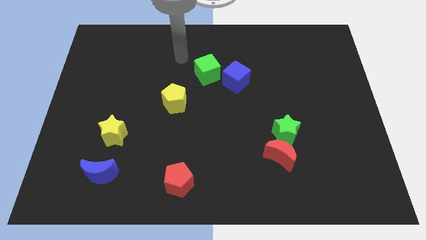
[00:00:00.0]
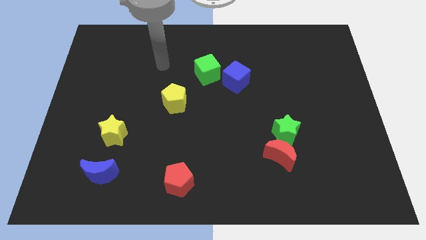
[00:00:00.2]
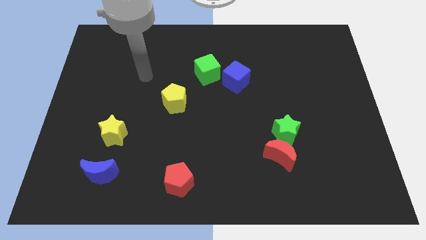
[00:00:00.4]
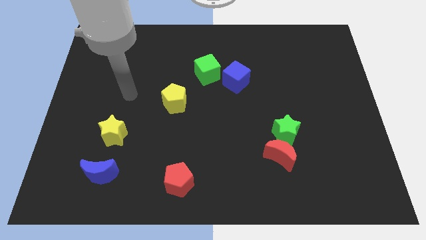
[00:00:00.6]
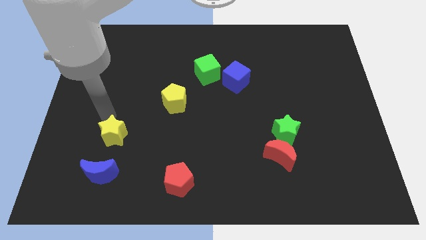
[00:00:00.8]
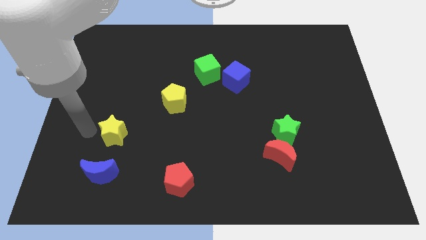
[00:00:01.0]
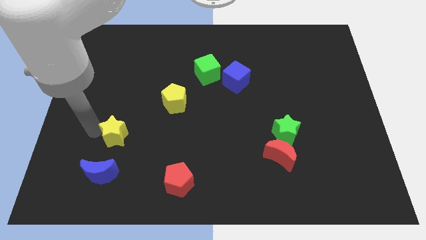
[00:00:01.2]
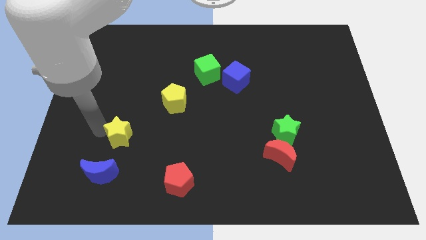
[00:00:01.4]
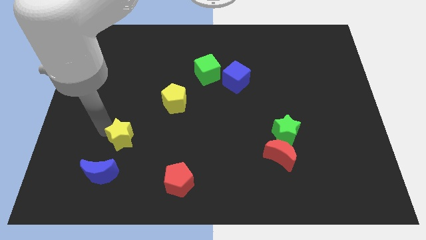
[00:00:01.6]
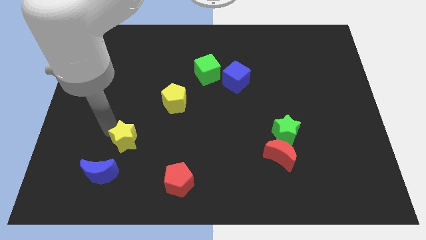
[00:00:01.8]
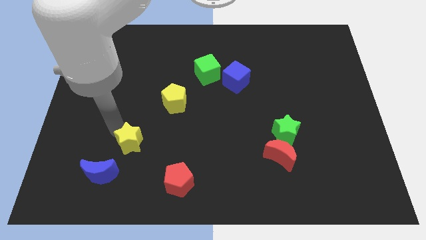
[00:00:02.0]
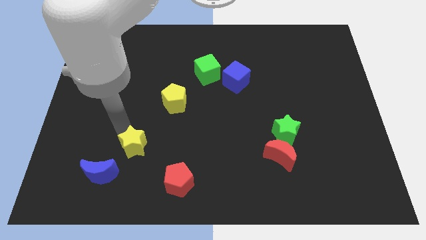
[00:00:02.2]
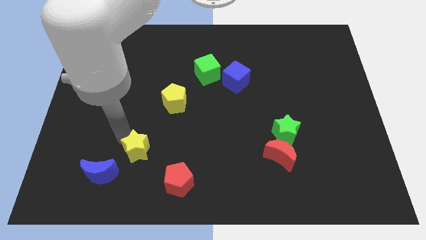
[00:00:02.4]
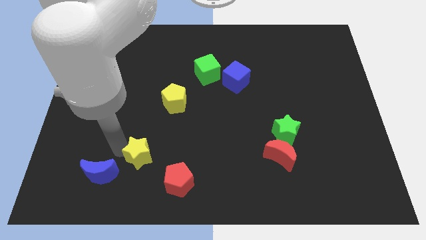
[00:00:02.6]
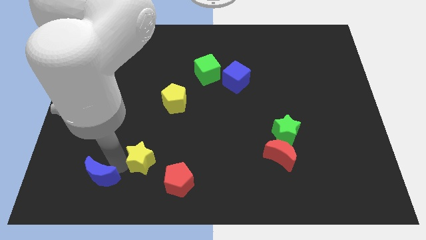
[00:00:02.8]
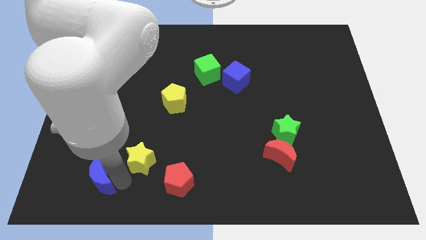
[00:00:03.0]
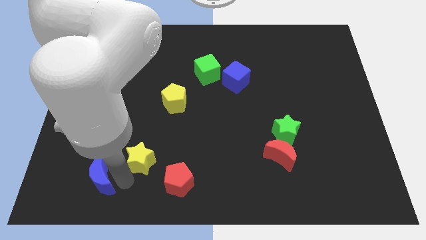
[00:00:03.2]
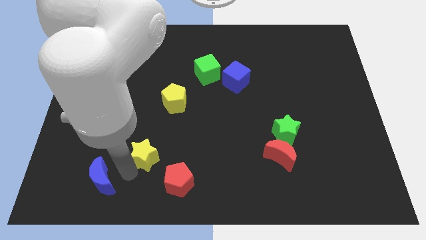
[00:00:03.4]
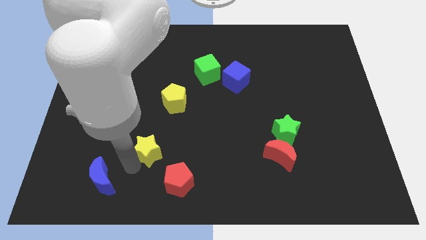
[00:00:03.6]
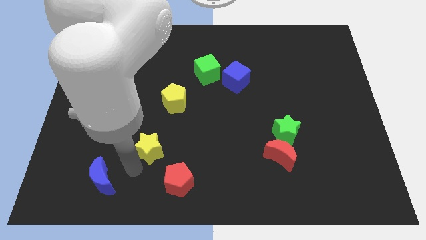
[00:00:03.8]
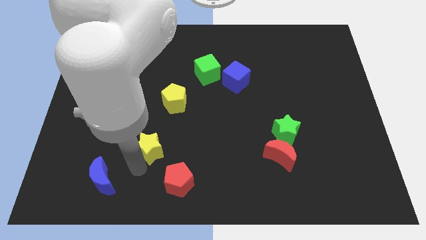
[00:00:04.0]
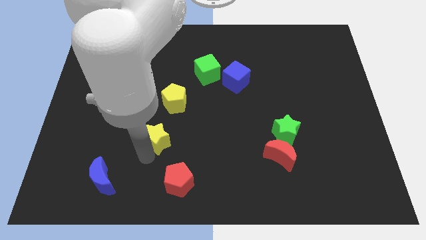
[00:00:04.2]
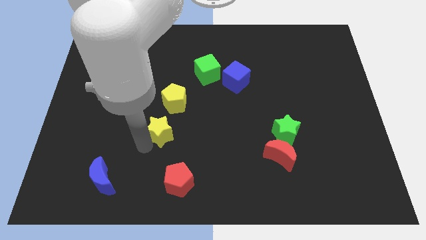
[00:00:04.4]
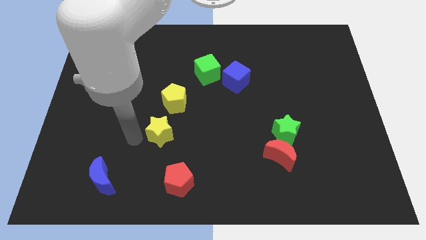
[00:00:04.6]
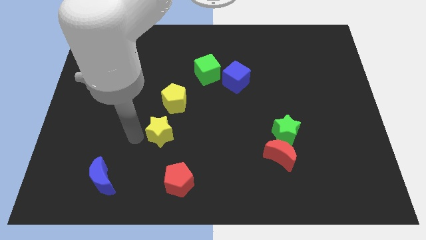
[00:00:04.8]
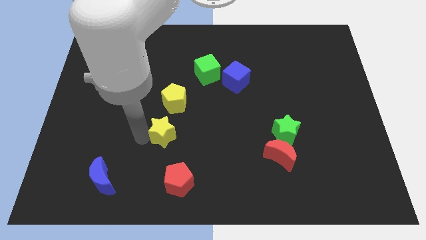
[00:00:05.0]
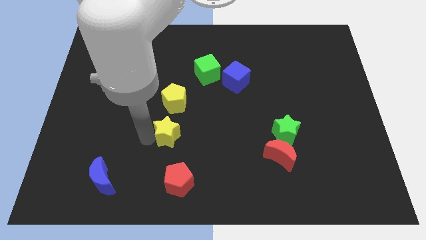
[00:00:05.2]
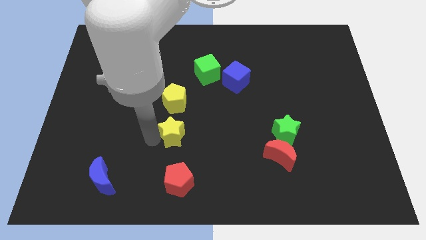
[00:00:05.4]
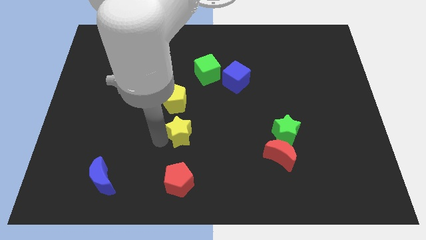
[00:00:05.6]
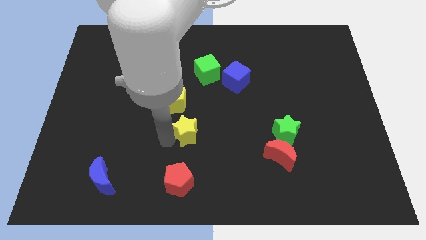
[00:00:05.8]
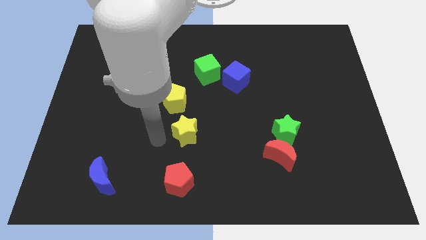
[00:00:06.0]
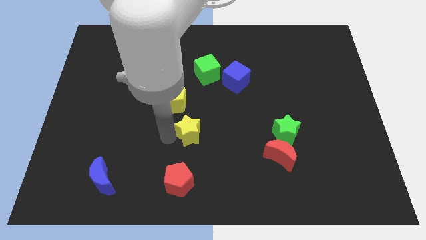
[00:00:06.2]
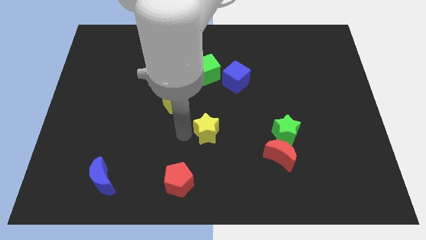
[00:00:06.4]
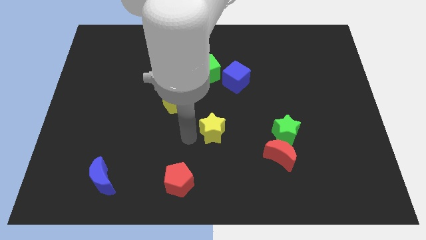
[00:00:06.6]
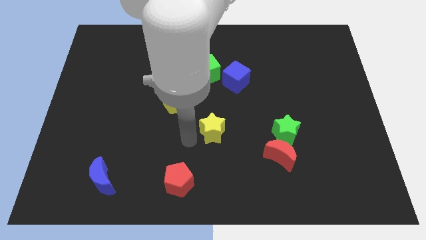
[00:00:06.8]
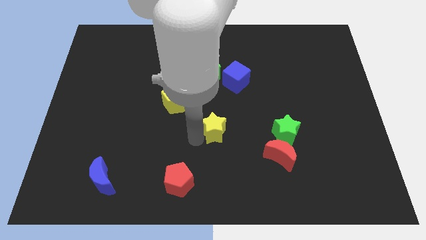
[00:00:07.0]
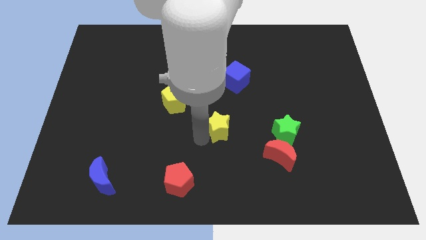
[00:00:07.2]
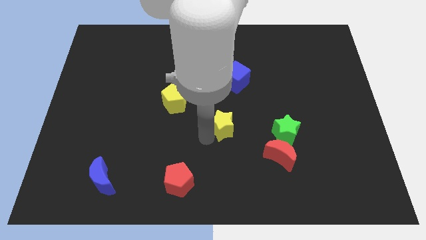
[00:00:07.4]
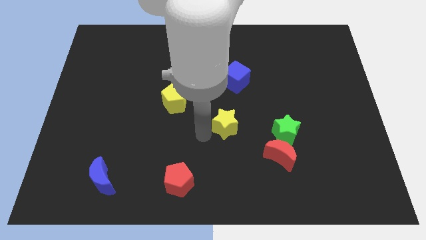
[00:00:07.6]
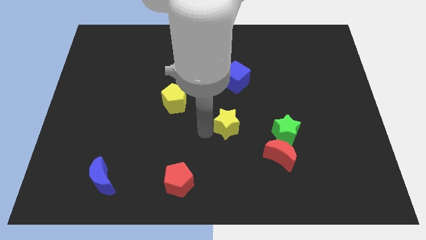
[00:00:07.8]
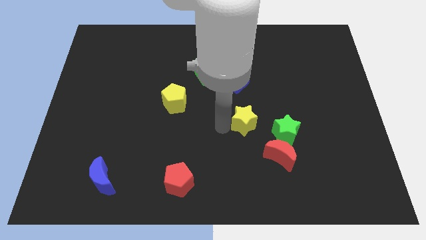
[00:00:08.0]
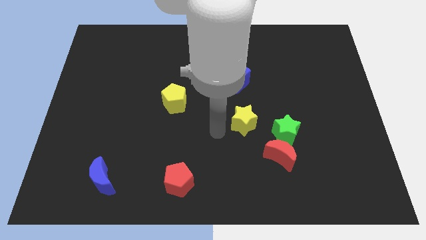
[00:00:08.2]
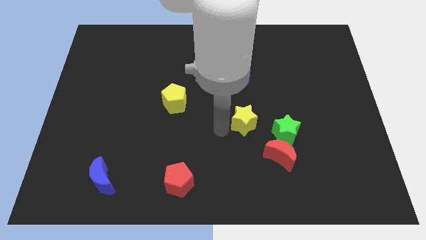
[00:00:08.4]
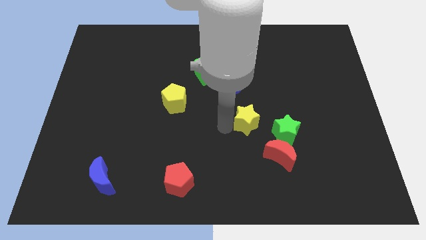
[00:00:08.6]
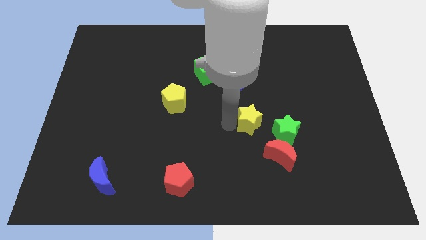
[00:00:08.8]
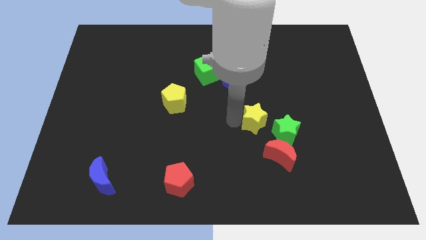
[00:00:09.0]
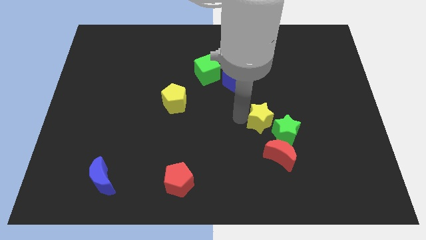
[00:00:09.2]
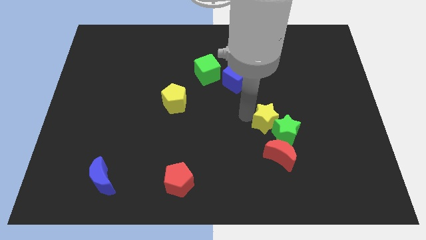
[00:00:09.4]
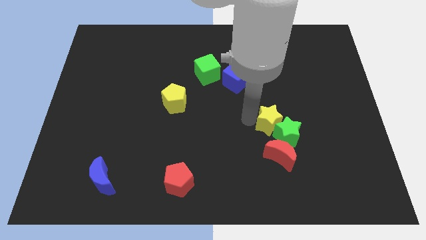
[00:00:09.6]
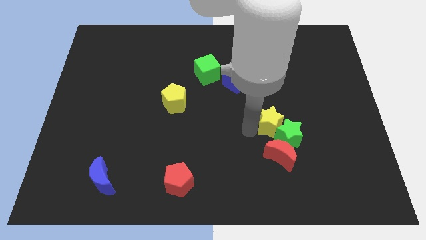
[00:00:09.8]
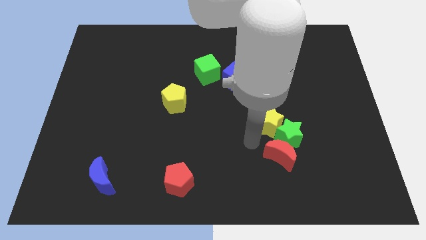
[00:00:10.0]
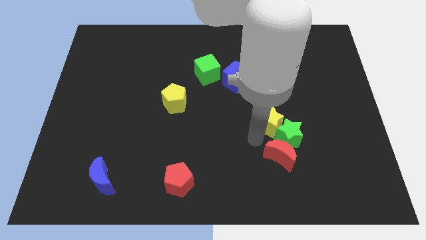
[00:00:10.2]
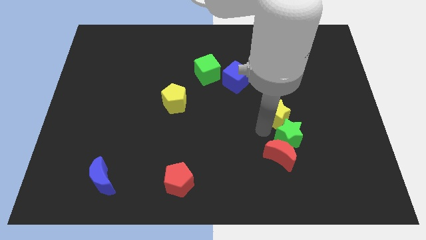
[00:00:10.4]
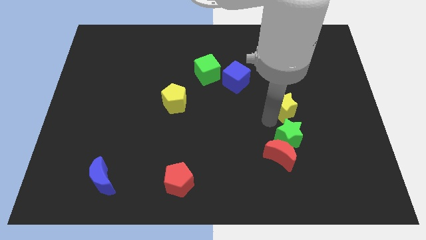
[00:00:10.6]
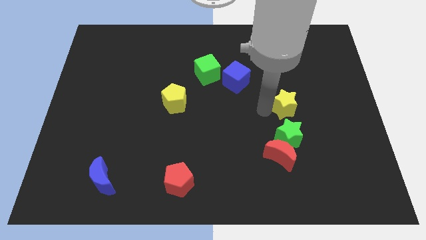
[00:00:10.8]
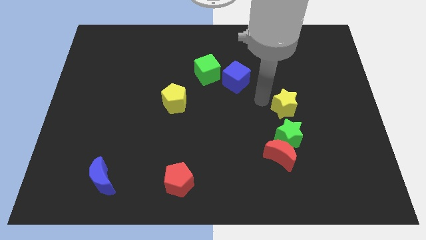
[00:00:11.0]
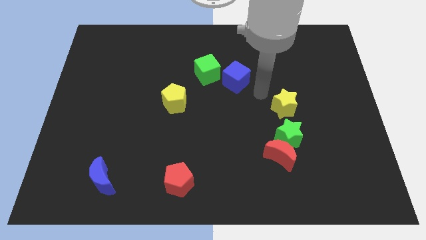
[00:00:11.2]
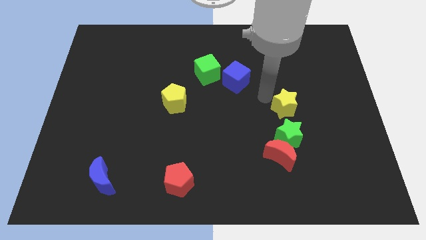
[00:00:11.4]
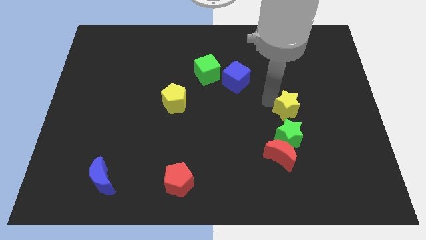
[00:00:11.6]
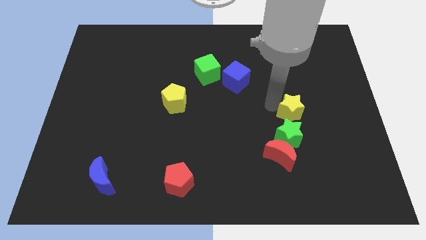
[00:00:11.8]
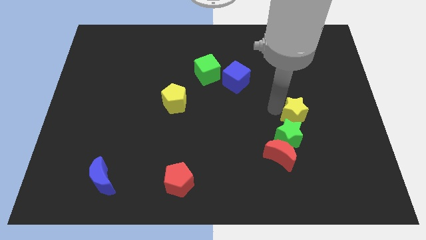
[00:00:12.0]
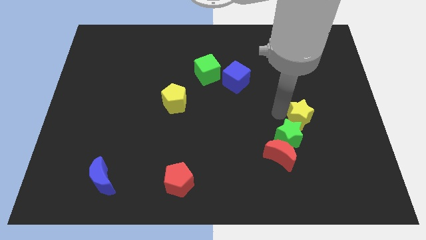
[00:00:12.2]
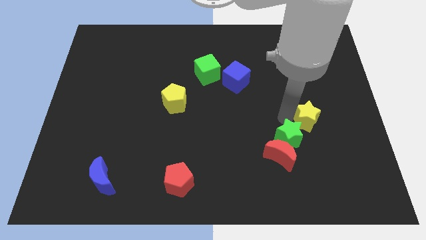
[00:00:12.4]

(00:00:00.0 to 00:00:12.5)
push the yellow star to the right of the green star

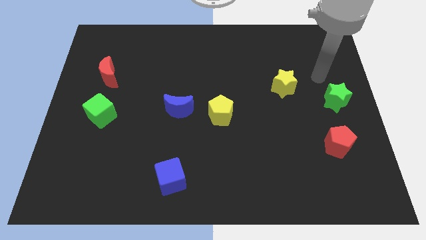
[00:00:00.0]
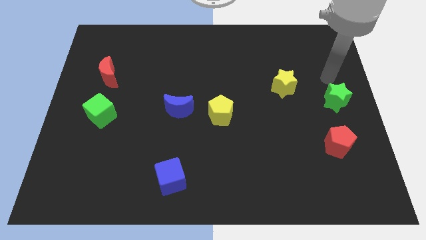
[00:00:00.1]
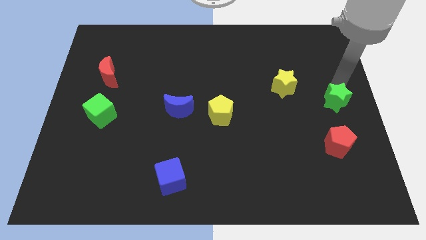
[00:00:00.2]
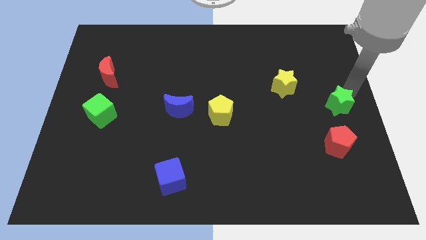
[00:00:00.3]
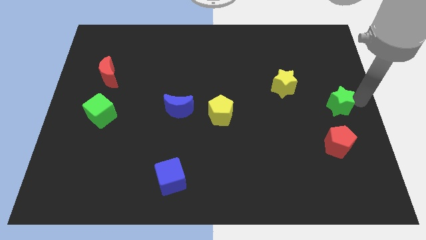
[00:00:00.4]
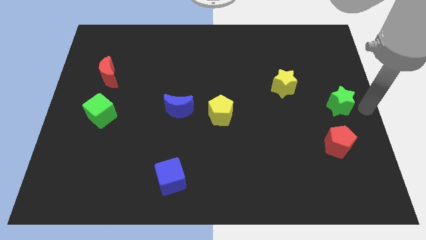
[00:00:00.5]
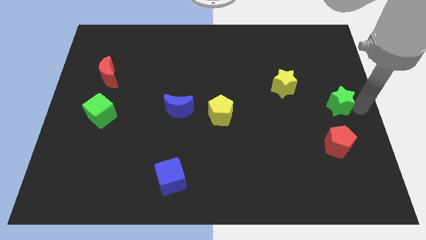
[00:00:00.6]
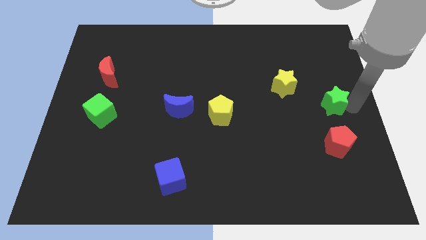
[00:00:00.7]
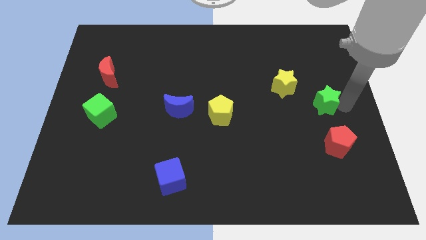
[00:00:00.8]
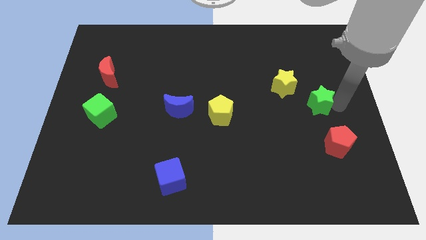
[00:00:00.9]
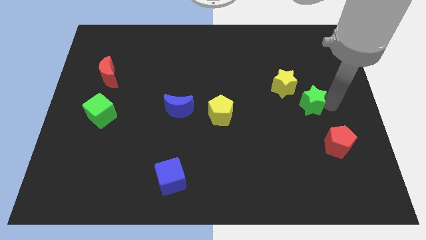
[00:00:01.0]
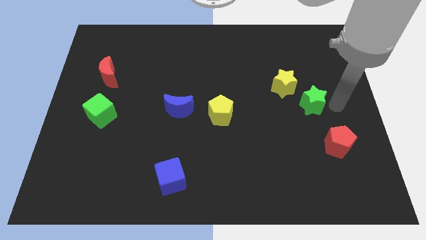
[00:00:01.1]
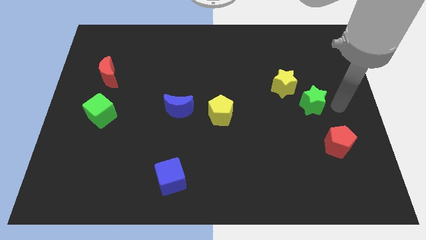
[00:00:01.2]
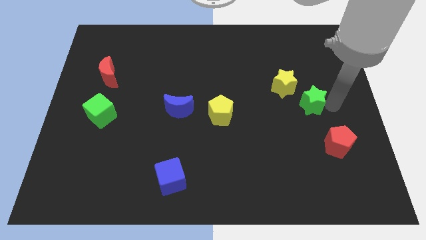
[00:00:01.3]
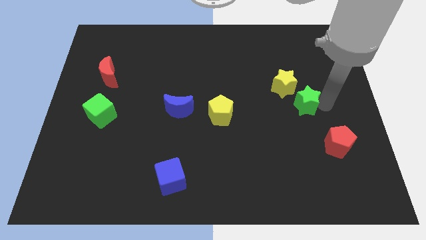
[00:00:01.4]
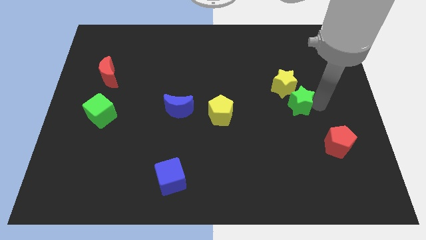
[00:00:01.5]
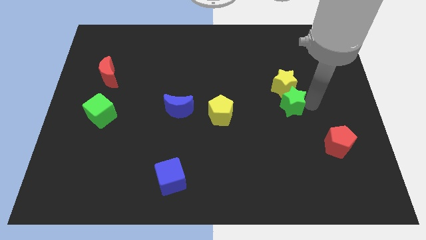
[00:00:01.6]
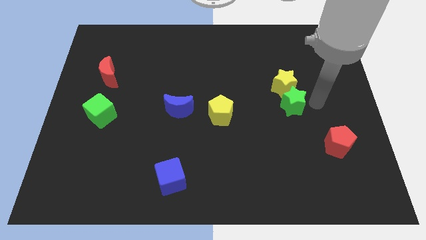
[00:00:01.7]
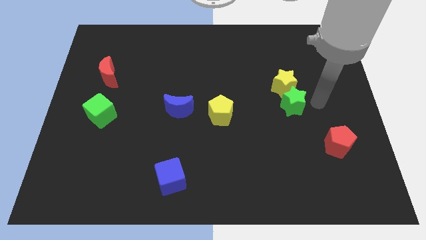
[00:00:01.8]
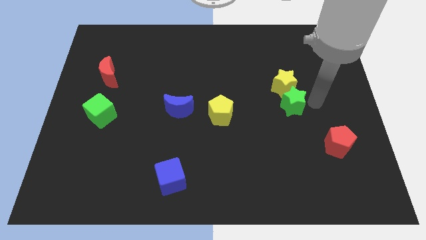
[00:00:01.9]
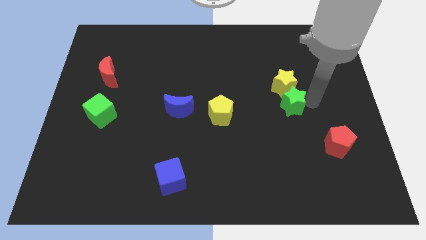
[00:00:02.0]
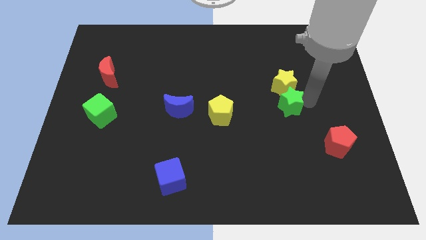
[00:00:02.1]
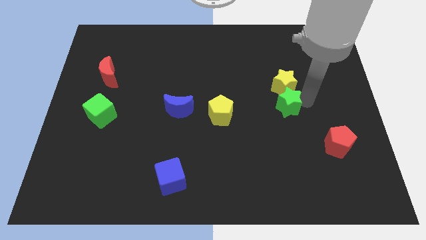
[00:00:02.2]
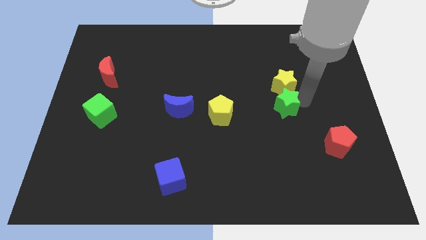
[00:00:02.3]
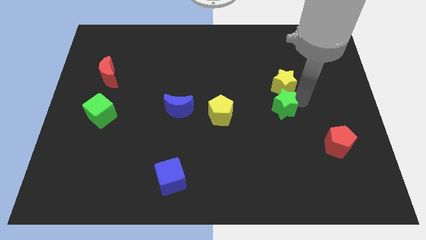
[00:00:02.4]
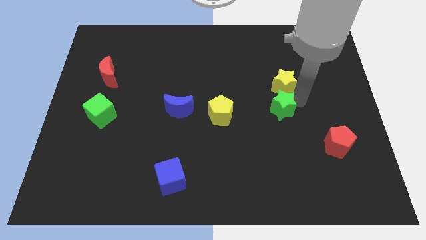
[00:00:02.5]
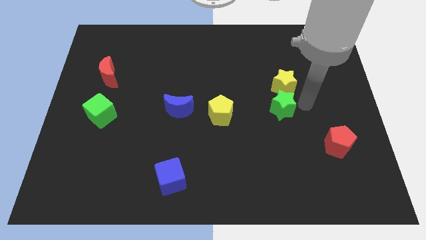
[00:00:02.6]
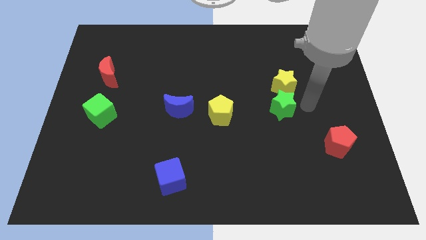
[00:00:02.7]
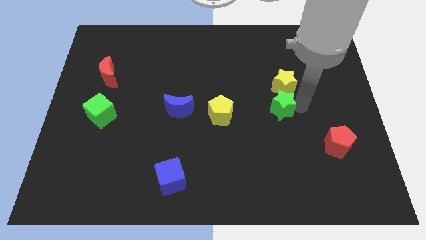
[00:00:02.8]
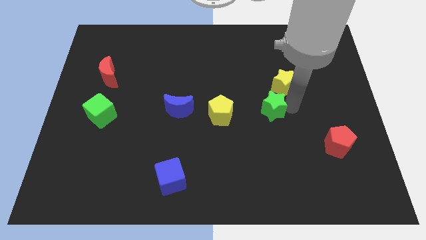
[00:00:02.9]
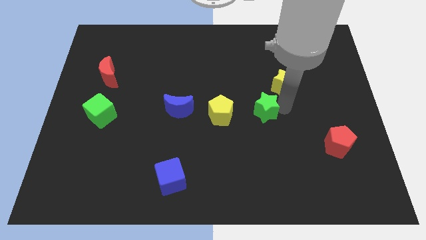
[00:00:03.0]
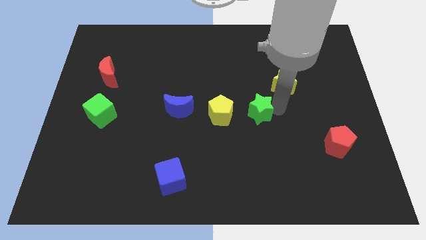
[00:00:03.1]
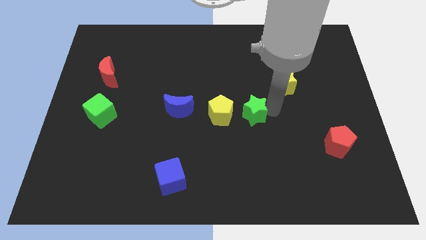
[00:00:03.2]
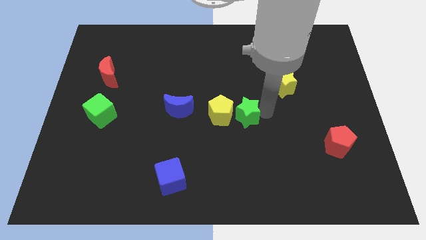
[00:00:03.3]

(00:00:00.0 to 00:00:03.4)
put the green star to the right side of the blue moon
